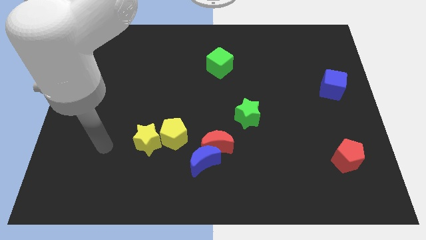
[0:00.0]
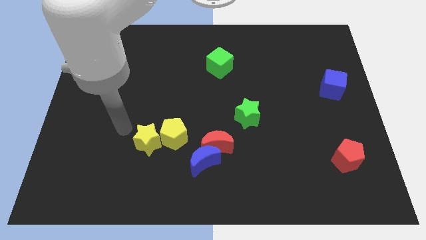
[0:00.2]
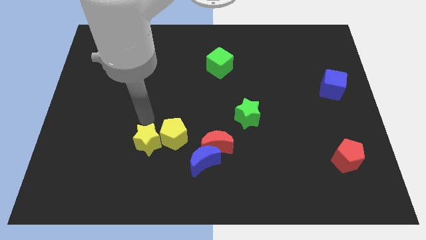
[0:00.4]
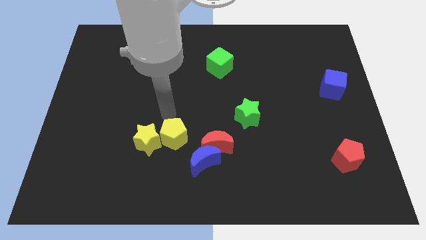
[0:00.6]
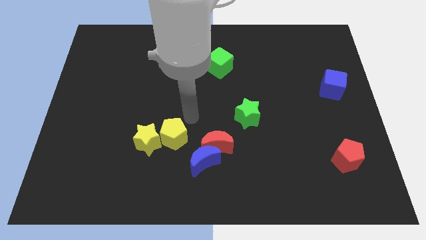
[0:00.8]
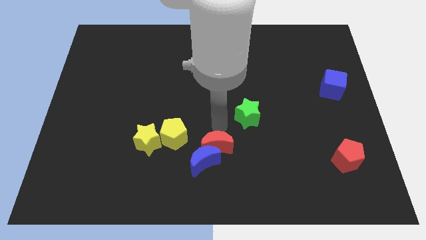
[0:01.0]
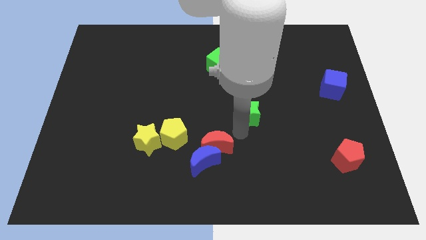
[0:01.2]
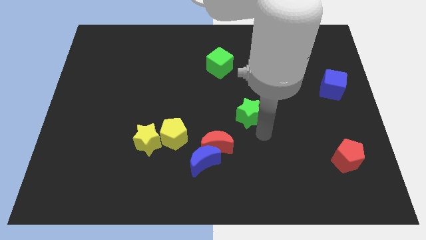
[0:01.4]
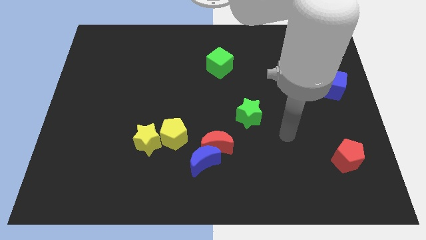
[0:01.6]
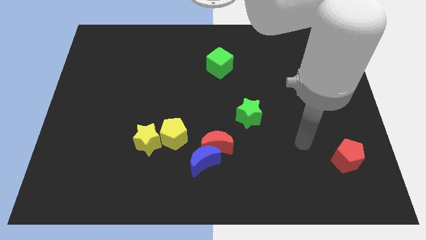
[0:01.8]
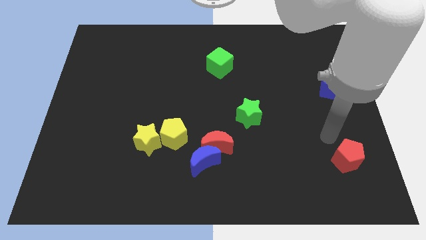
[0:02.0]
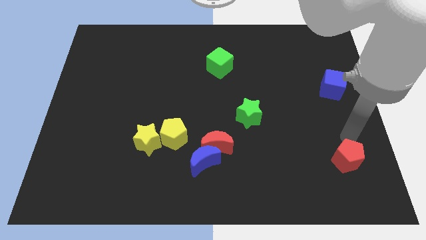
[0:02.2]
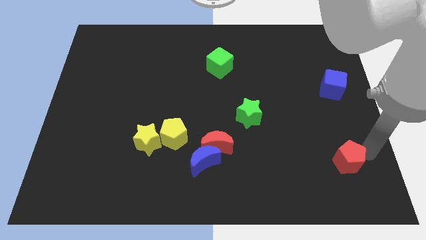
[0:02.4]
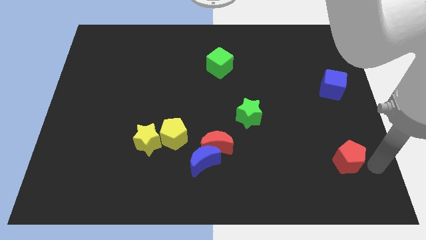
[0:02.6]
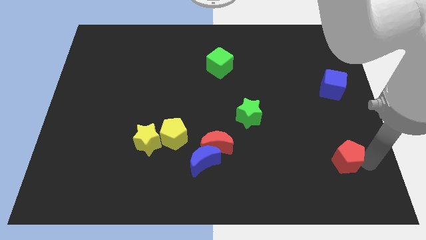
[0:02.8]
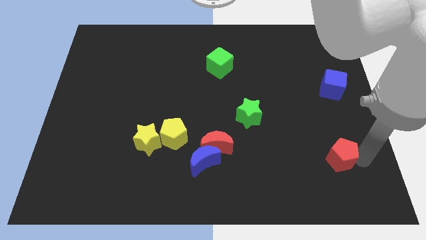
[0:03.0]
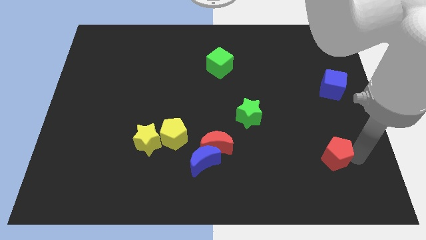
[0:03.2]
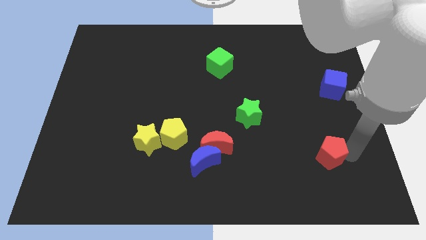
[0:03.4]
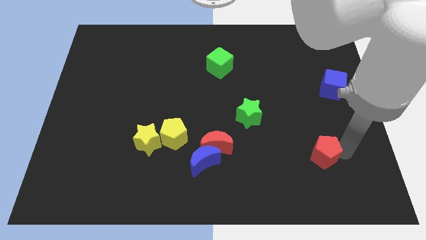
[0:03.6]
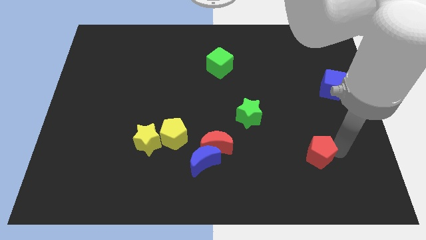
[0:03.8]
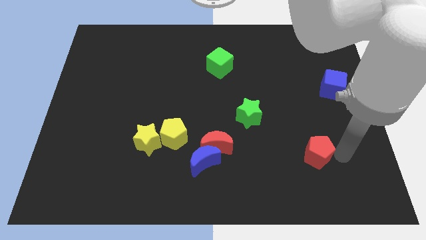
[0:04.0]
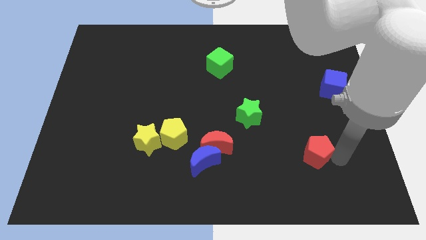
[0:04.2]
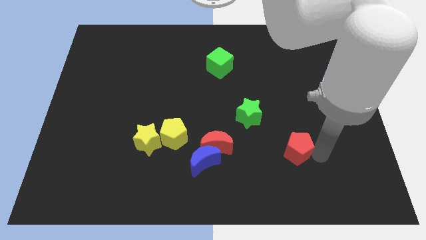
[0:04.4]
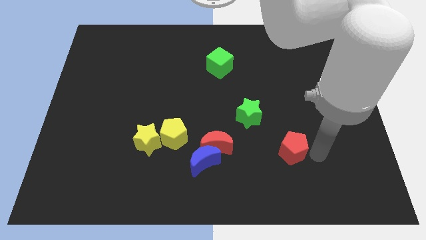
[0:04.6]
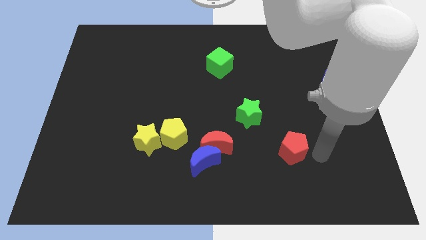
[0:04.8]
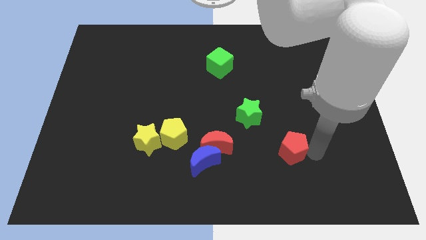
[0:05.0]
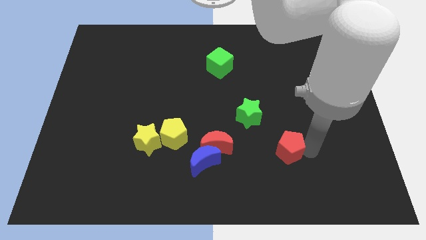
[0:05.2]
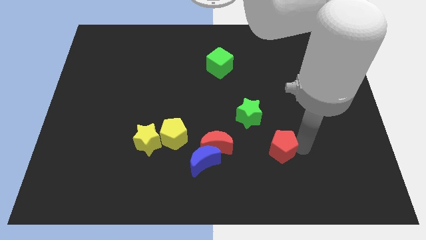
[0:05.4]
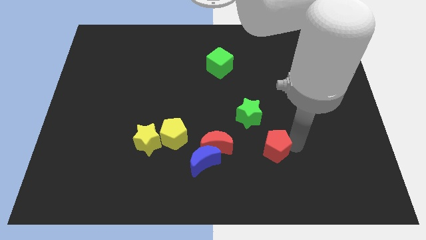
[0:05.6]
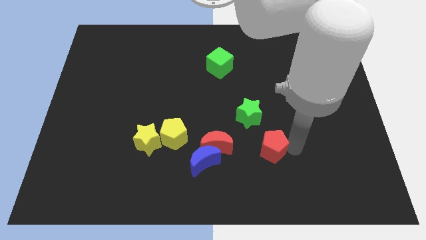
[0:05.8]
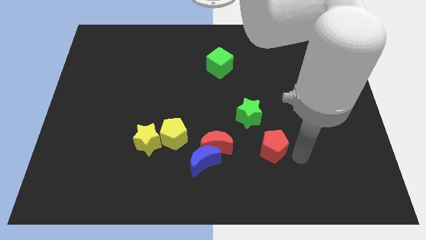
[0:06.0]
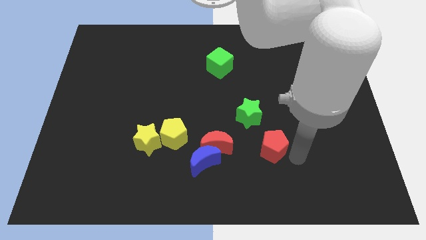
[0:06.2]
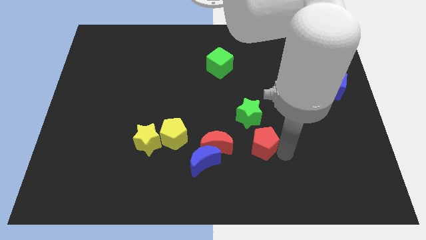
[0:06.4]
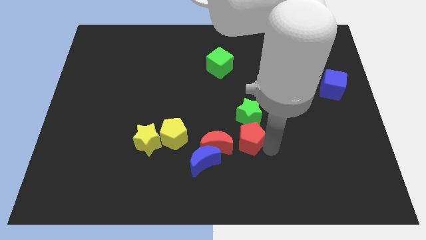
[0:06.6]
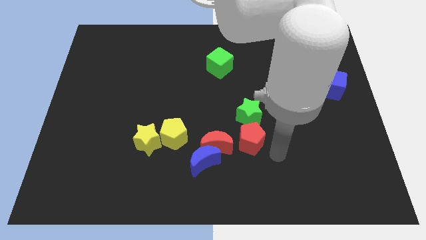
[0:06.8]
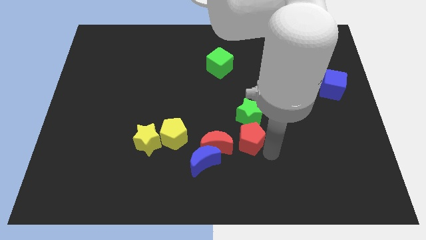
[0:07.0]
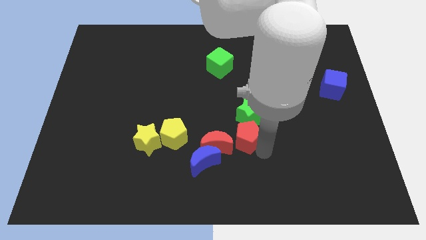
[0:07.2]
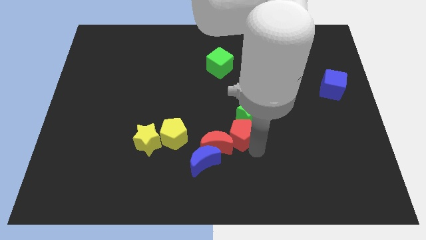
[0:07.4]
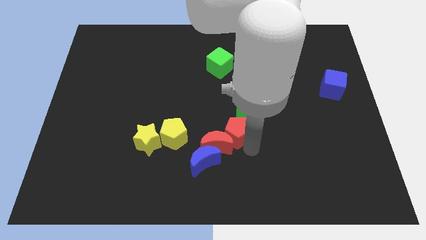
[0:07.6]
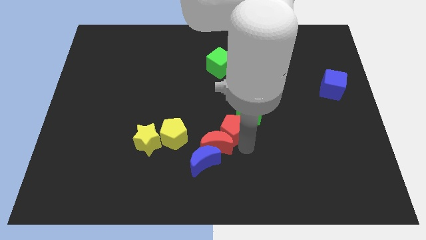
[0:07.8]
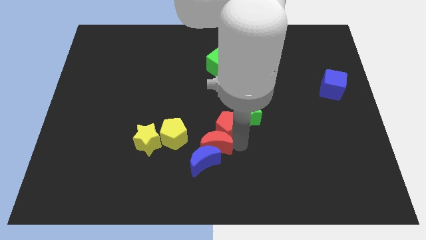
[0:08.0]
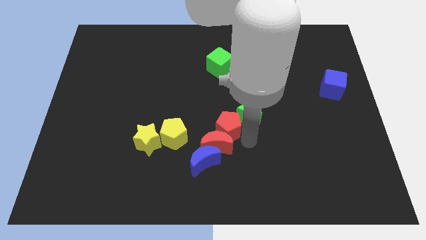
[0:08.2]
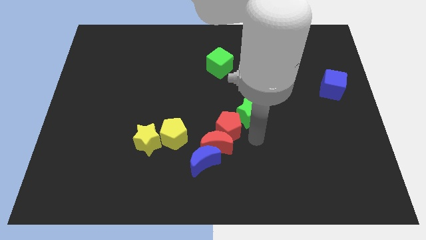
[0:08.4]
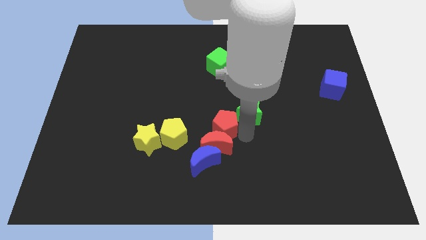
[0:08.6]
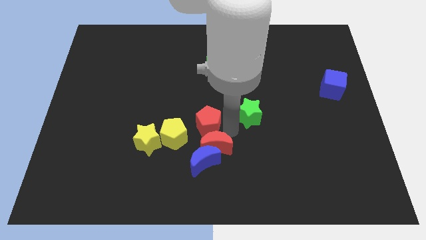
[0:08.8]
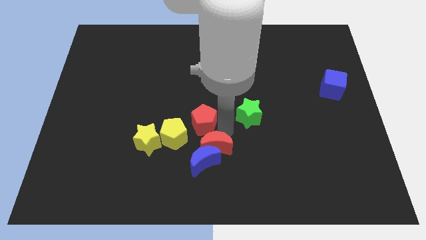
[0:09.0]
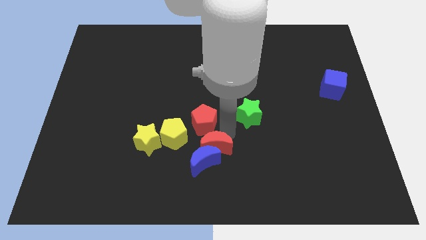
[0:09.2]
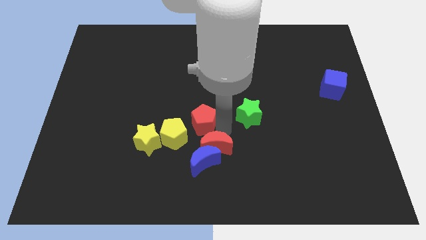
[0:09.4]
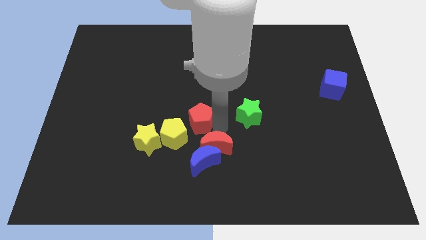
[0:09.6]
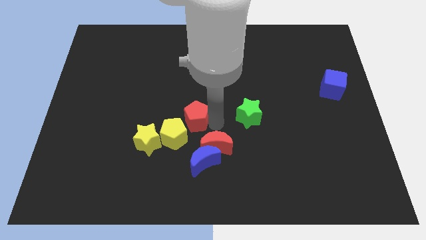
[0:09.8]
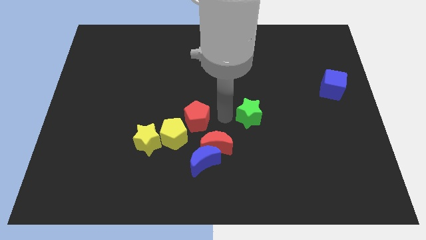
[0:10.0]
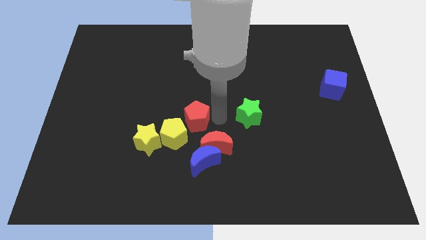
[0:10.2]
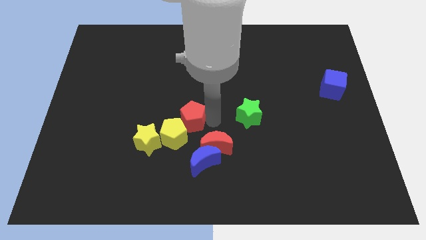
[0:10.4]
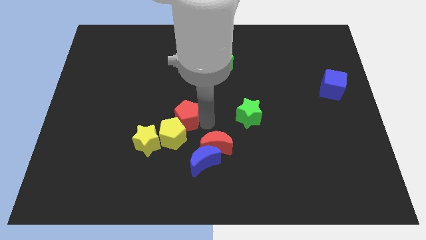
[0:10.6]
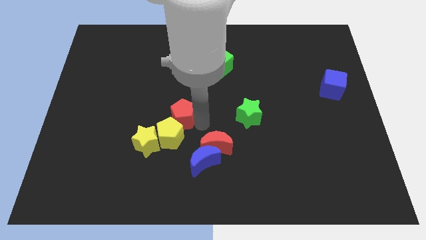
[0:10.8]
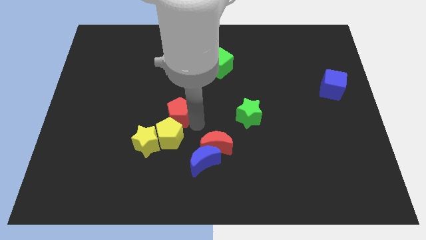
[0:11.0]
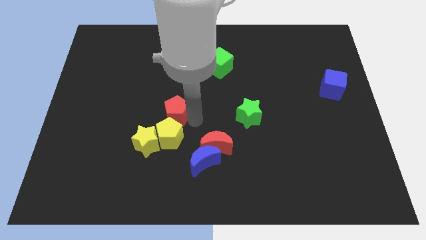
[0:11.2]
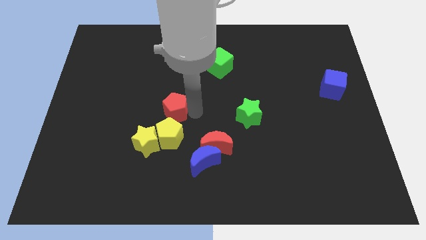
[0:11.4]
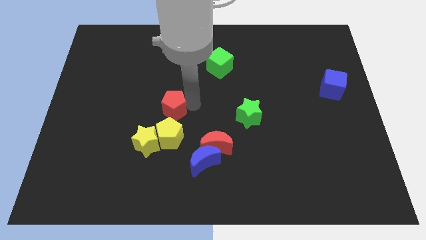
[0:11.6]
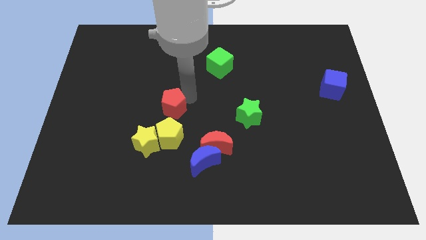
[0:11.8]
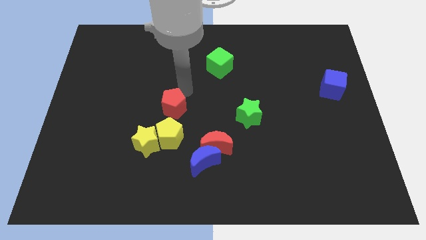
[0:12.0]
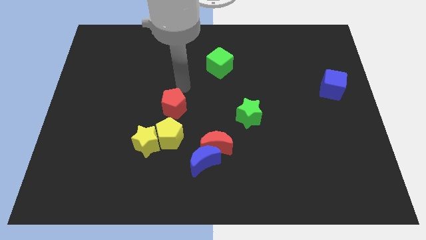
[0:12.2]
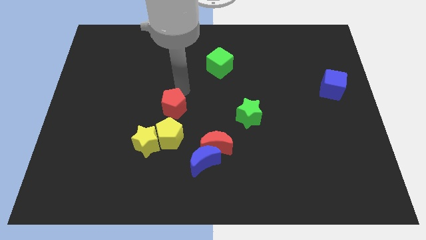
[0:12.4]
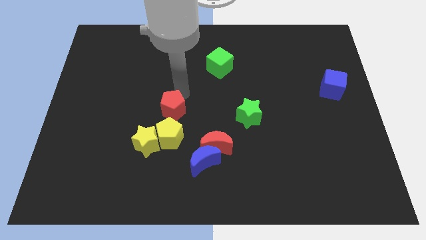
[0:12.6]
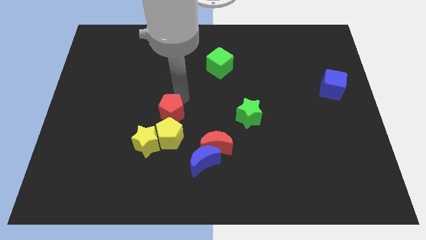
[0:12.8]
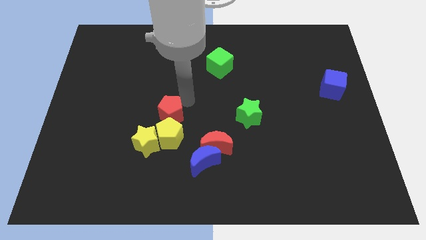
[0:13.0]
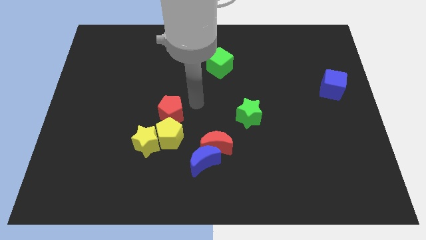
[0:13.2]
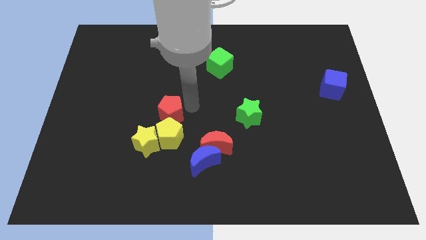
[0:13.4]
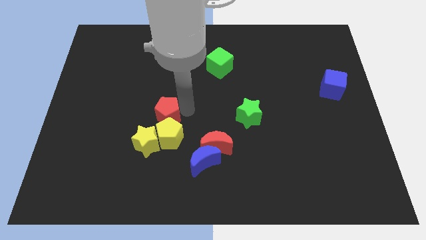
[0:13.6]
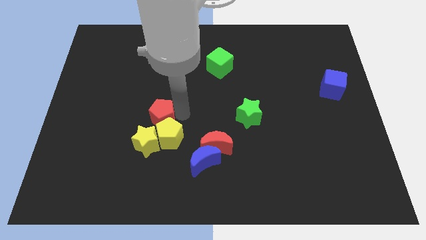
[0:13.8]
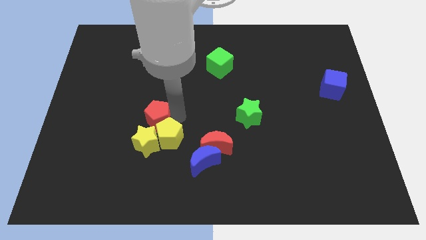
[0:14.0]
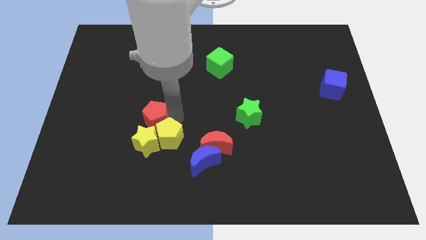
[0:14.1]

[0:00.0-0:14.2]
slide the red pentagon just left of the yellow pentagon
